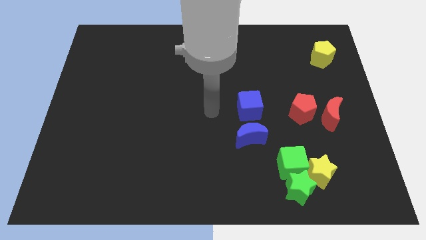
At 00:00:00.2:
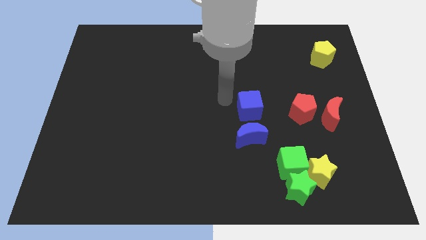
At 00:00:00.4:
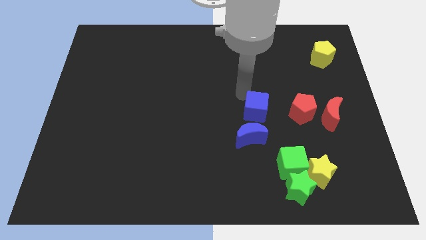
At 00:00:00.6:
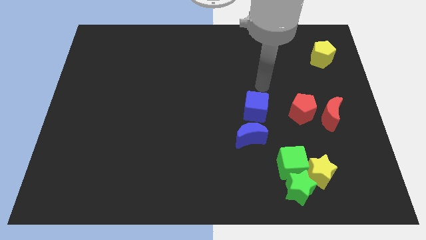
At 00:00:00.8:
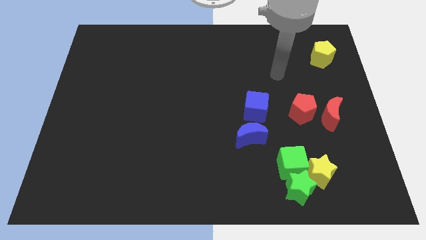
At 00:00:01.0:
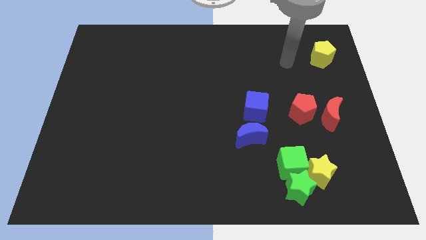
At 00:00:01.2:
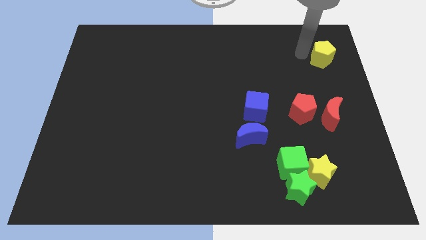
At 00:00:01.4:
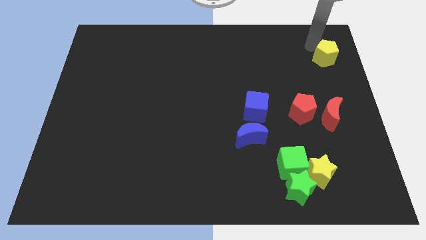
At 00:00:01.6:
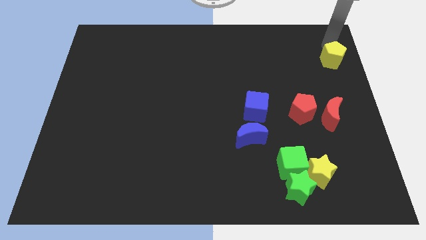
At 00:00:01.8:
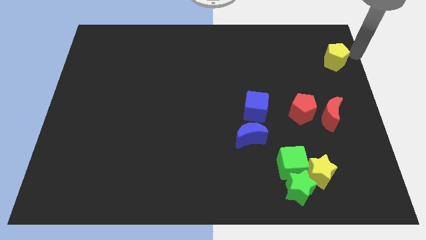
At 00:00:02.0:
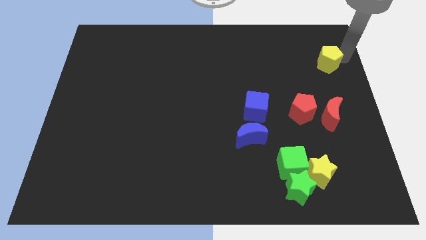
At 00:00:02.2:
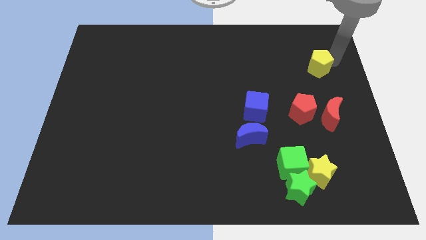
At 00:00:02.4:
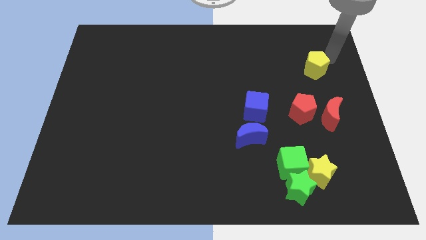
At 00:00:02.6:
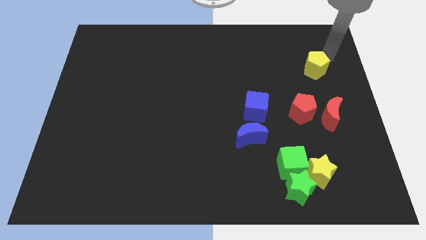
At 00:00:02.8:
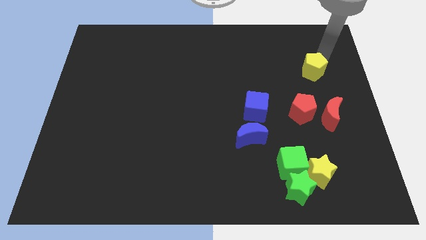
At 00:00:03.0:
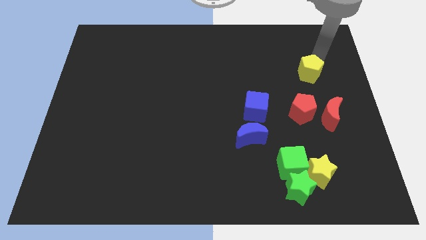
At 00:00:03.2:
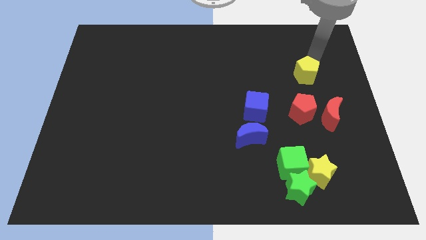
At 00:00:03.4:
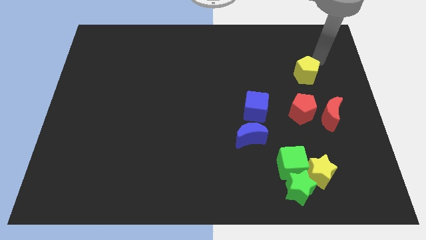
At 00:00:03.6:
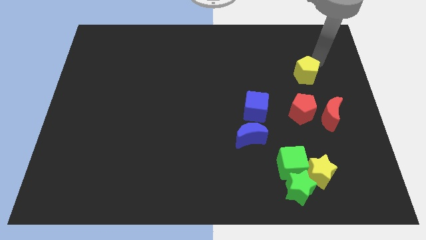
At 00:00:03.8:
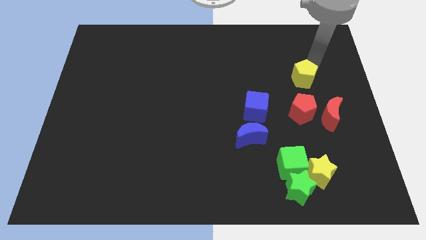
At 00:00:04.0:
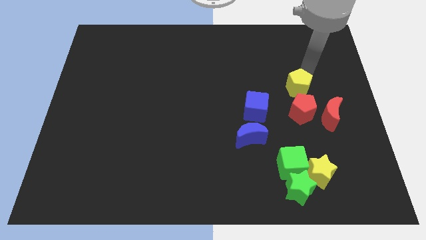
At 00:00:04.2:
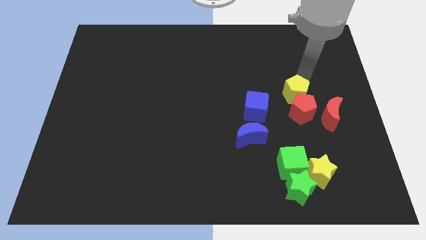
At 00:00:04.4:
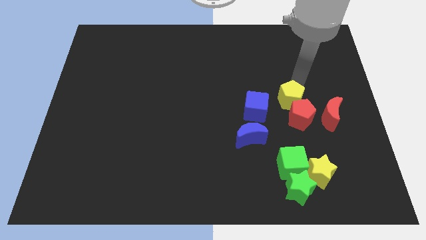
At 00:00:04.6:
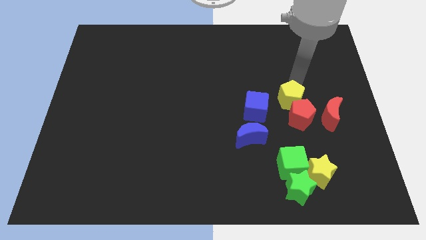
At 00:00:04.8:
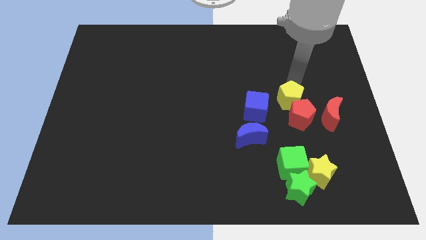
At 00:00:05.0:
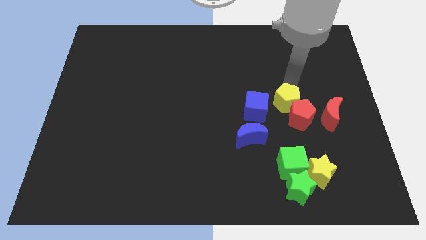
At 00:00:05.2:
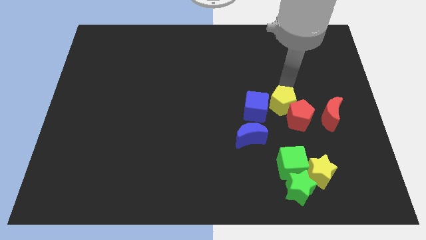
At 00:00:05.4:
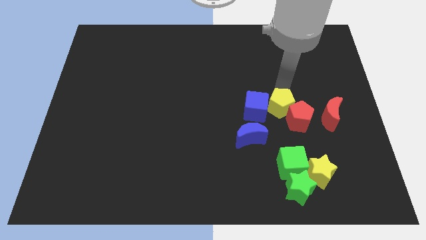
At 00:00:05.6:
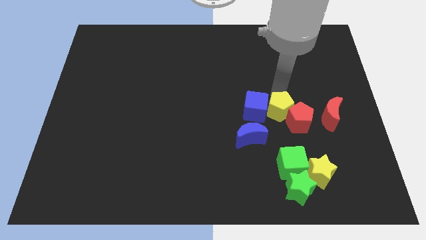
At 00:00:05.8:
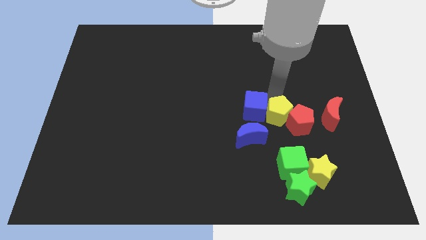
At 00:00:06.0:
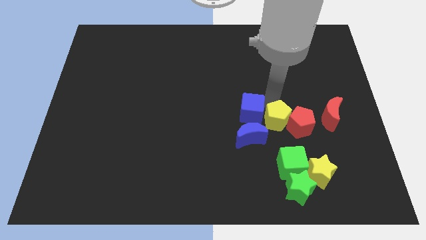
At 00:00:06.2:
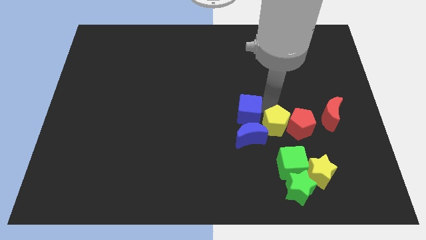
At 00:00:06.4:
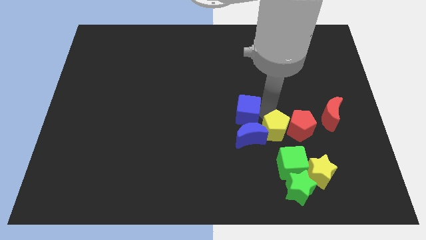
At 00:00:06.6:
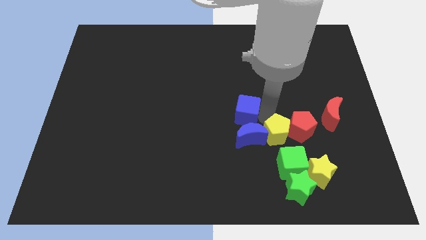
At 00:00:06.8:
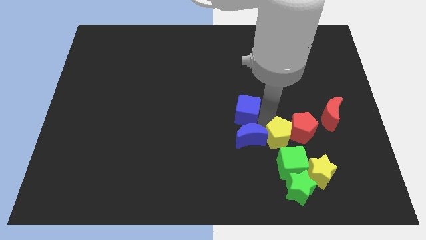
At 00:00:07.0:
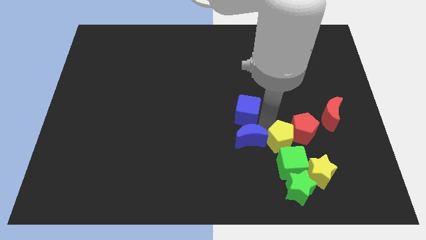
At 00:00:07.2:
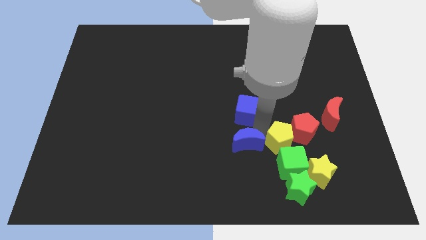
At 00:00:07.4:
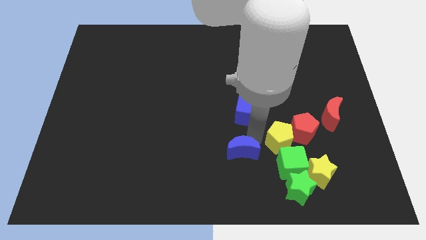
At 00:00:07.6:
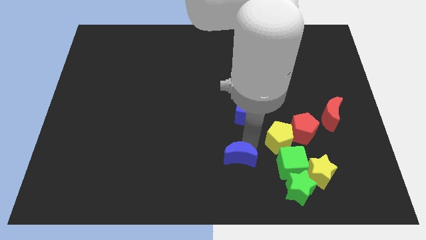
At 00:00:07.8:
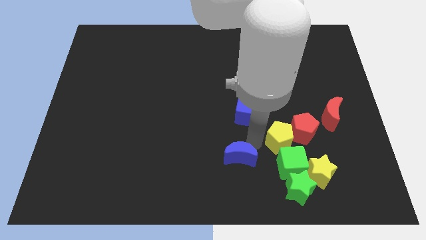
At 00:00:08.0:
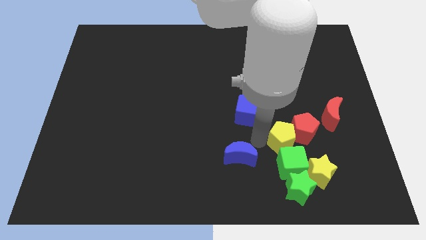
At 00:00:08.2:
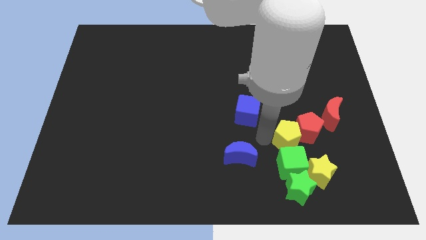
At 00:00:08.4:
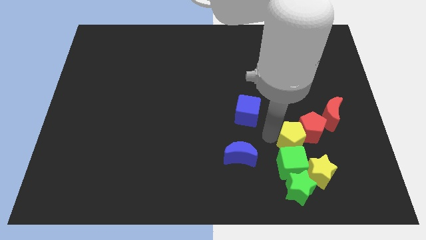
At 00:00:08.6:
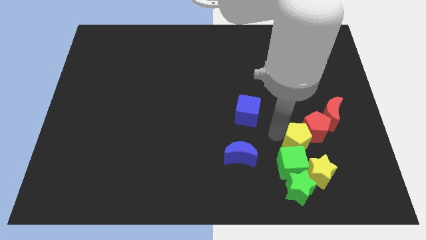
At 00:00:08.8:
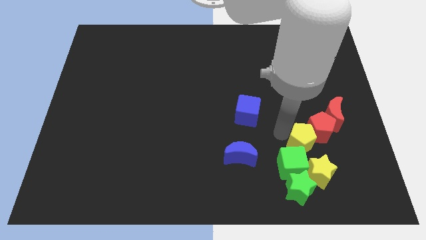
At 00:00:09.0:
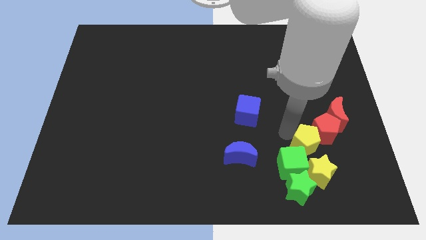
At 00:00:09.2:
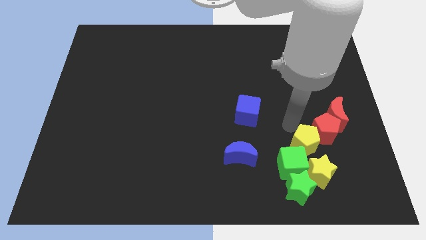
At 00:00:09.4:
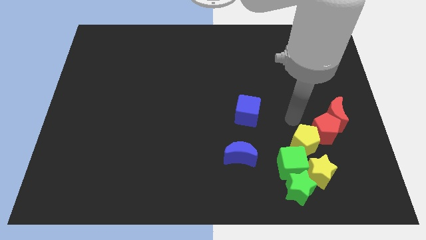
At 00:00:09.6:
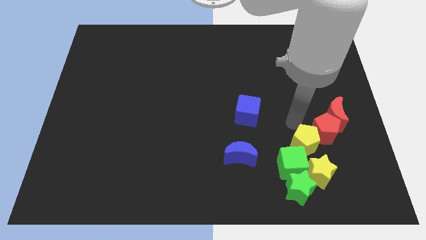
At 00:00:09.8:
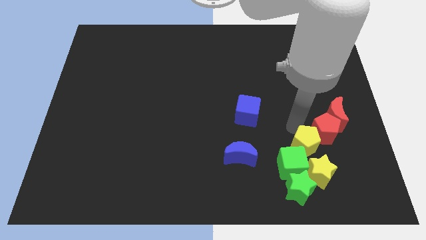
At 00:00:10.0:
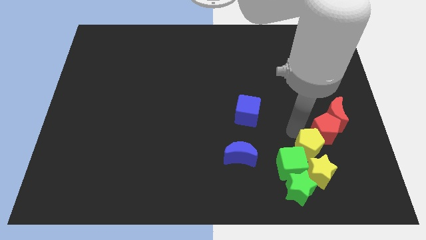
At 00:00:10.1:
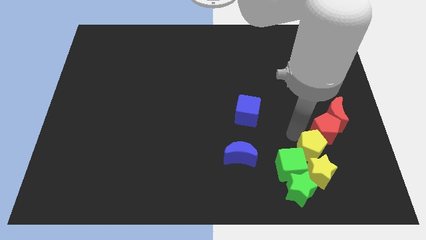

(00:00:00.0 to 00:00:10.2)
move the yellow pentagon next to the yellow star

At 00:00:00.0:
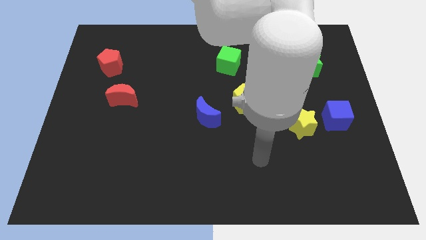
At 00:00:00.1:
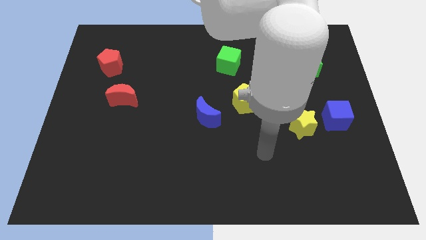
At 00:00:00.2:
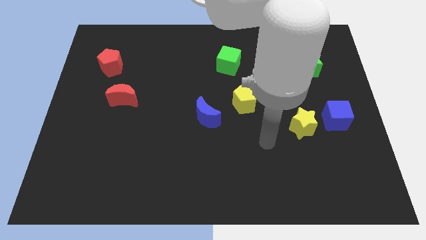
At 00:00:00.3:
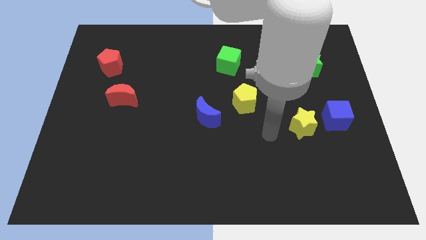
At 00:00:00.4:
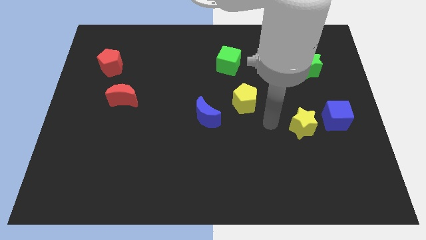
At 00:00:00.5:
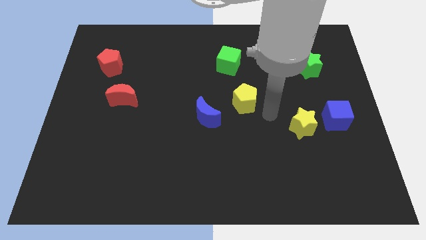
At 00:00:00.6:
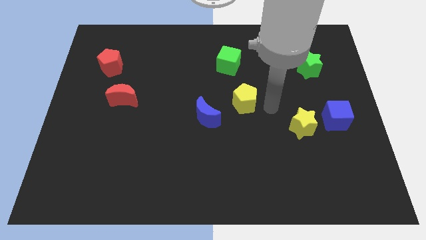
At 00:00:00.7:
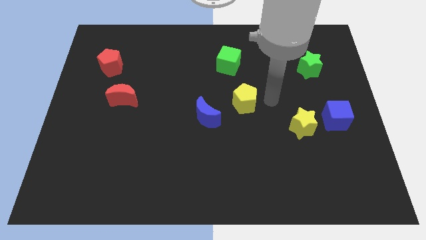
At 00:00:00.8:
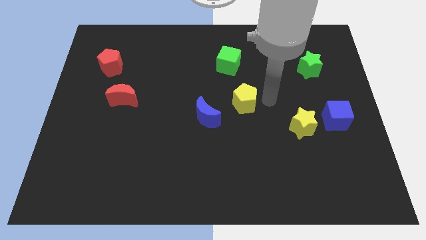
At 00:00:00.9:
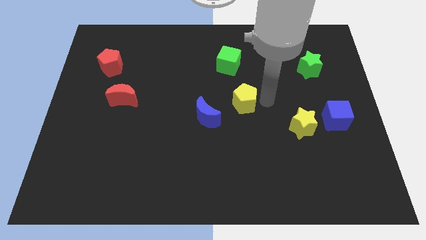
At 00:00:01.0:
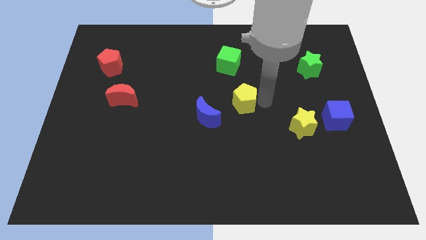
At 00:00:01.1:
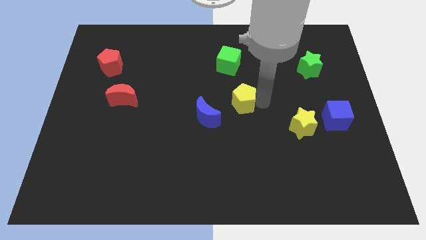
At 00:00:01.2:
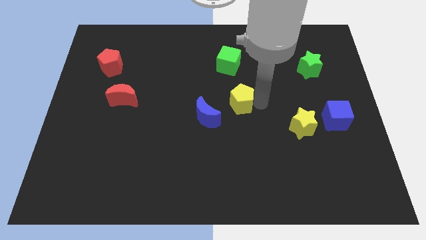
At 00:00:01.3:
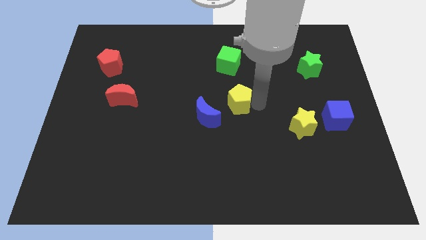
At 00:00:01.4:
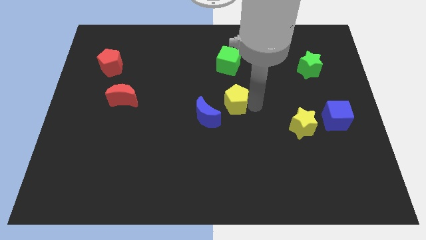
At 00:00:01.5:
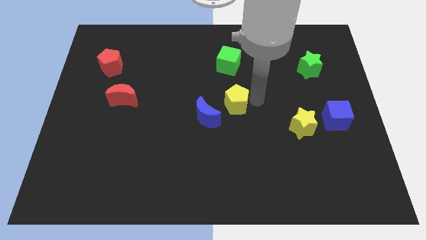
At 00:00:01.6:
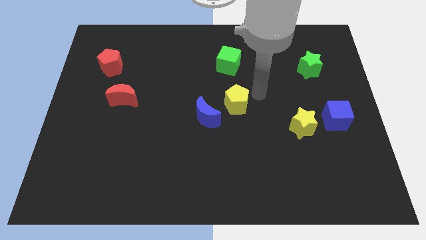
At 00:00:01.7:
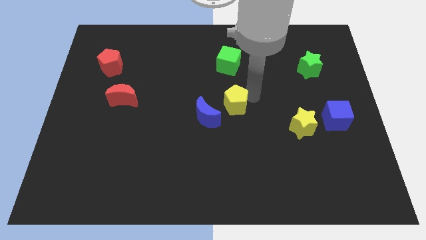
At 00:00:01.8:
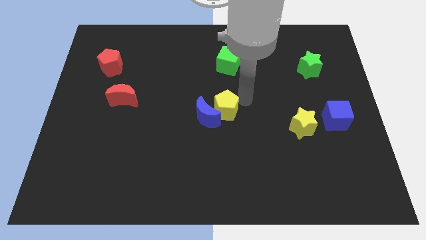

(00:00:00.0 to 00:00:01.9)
put the yellow pentagon to the blue moon
